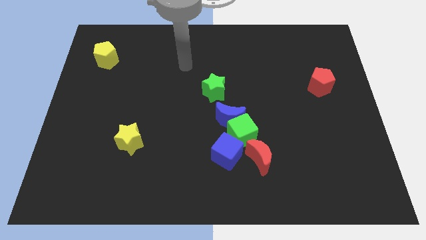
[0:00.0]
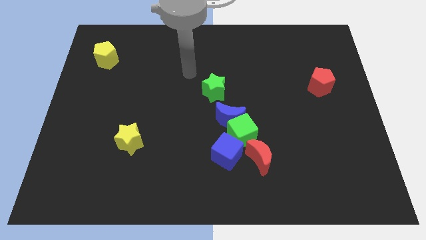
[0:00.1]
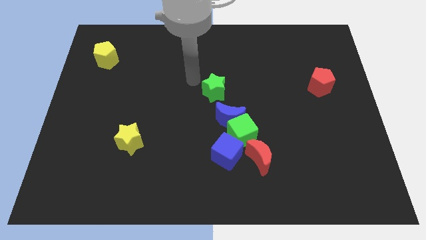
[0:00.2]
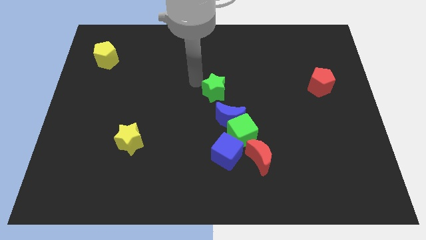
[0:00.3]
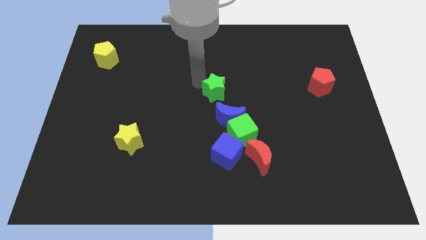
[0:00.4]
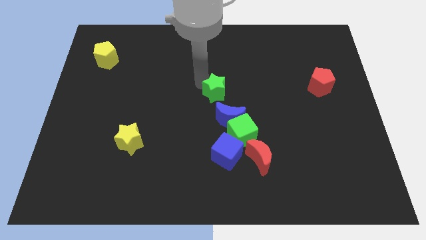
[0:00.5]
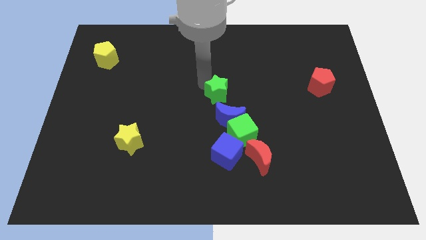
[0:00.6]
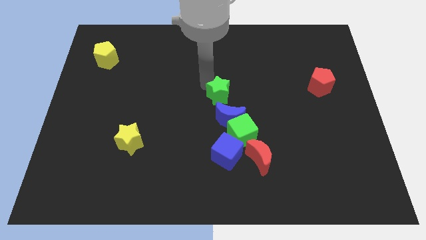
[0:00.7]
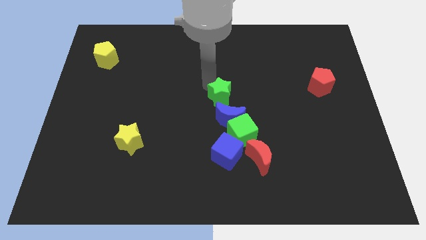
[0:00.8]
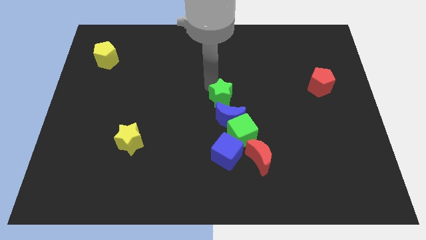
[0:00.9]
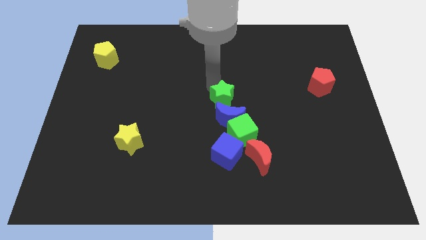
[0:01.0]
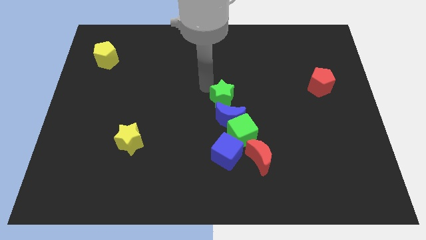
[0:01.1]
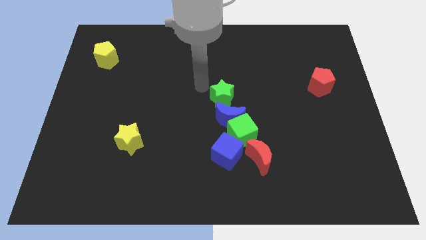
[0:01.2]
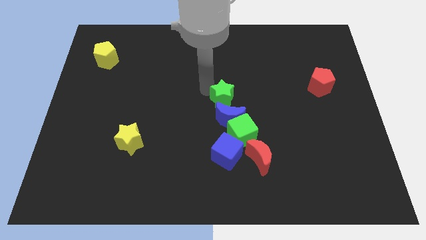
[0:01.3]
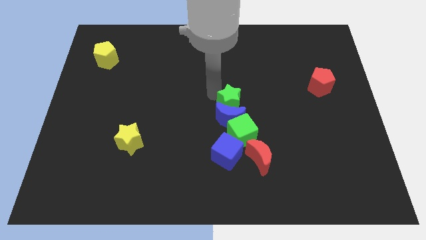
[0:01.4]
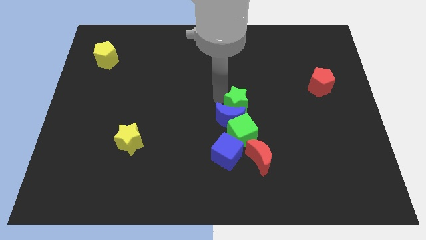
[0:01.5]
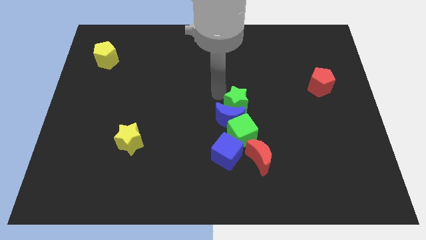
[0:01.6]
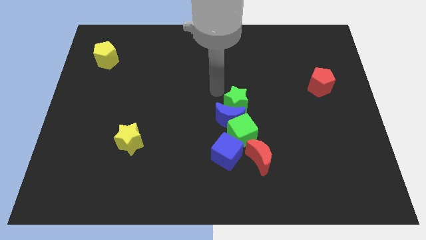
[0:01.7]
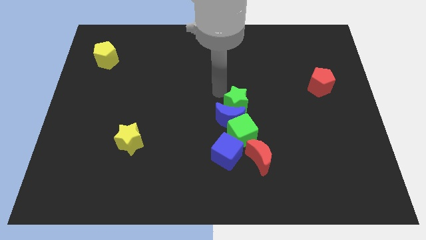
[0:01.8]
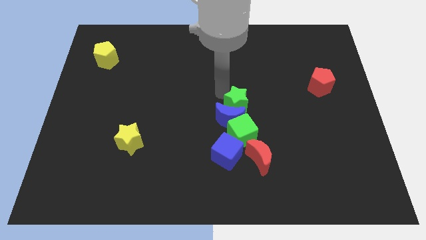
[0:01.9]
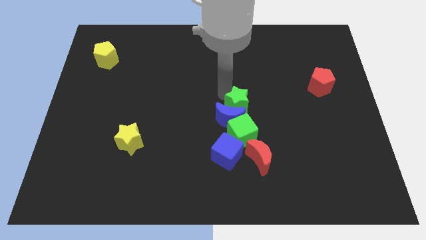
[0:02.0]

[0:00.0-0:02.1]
slightly move the green star downwards and right diagonally

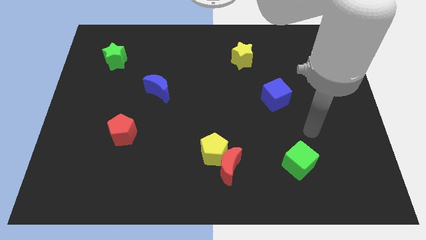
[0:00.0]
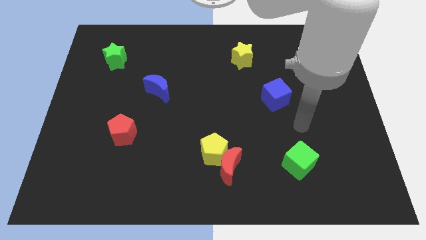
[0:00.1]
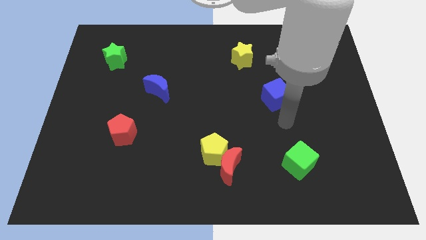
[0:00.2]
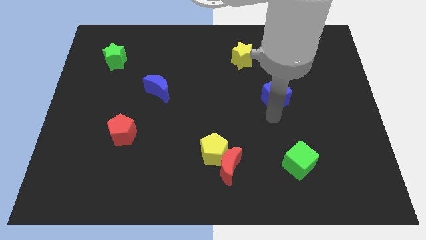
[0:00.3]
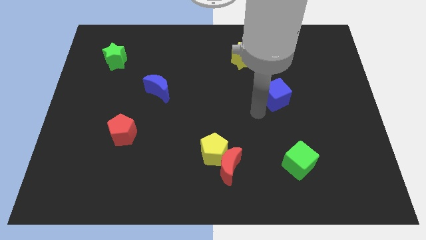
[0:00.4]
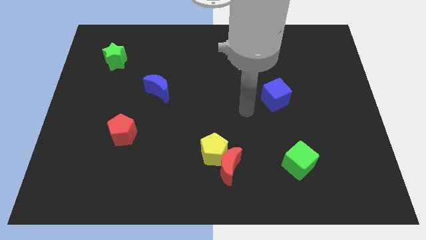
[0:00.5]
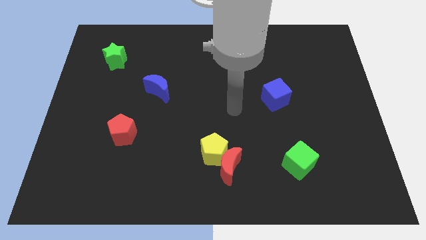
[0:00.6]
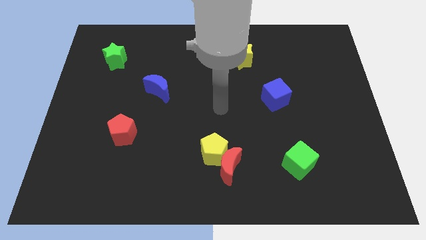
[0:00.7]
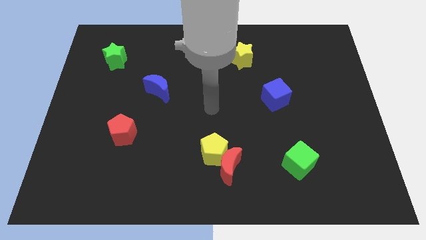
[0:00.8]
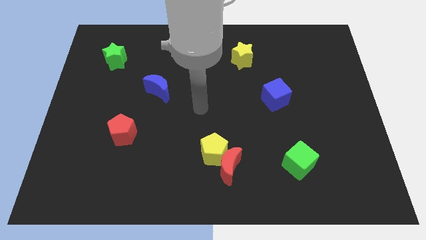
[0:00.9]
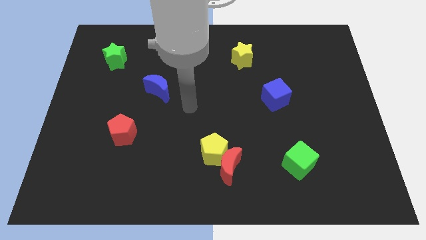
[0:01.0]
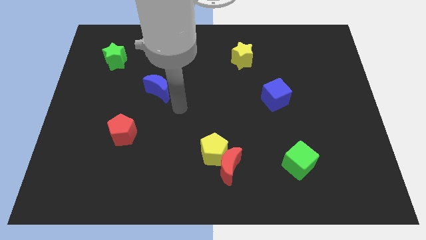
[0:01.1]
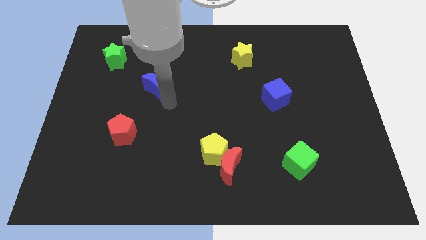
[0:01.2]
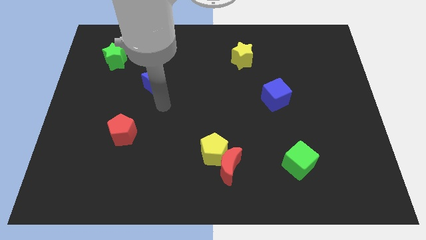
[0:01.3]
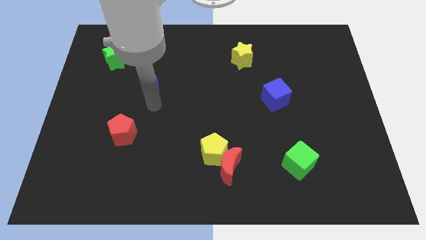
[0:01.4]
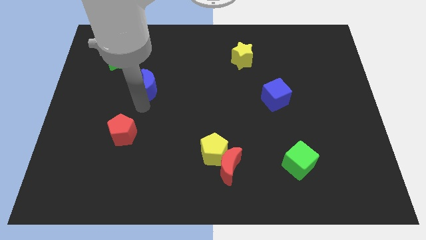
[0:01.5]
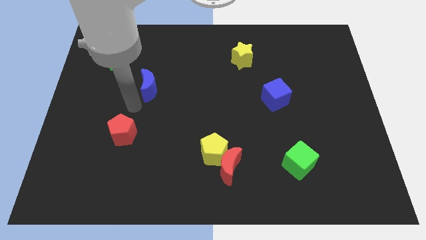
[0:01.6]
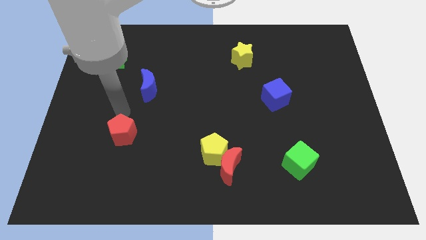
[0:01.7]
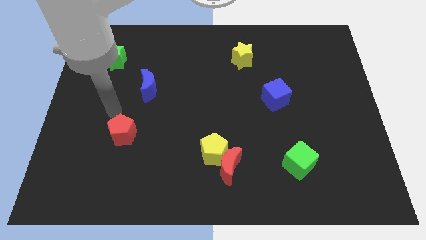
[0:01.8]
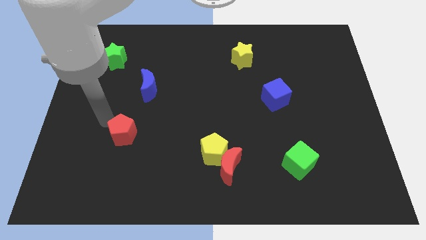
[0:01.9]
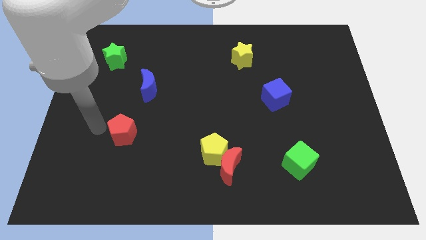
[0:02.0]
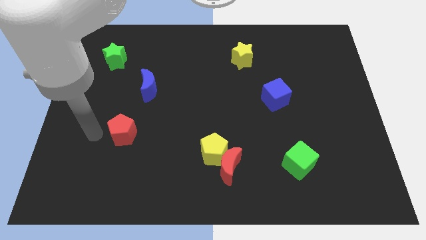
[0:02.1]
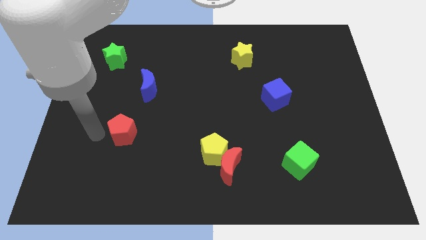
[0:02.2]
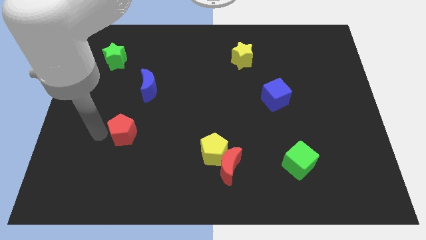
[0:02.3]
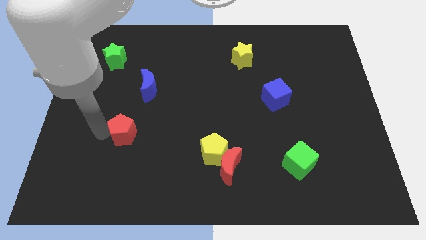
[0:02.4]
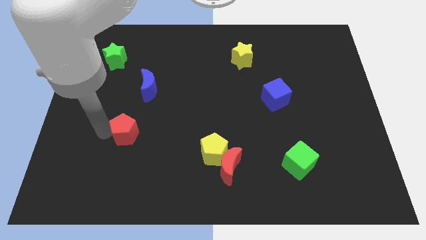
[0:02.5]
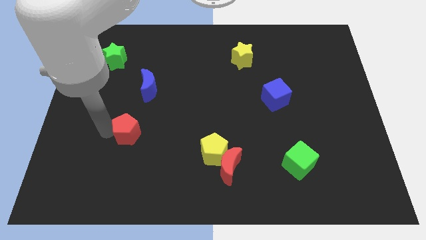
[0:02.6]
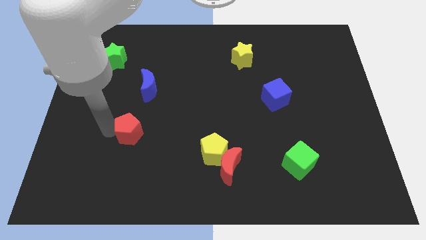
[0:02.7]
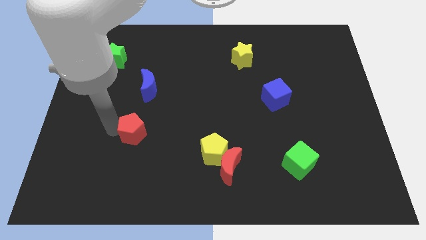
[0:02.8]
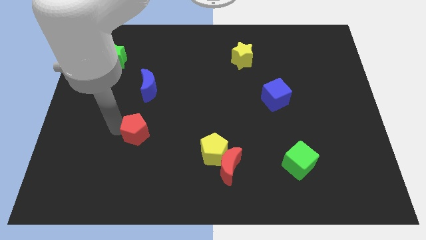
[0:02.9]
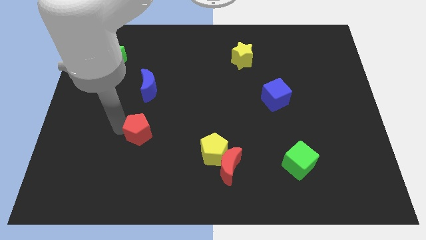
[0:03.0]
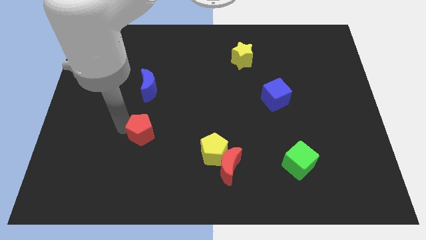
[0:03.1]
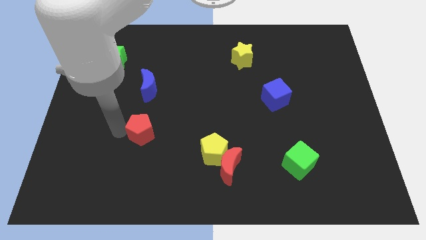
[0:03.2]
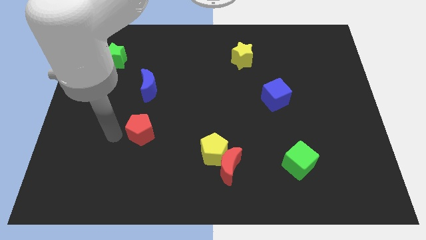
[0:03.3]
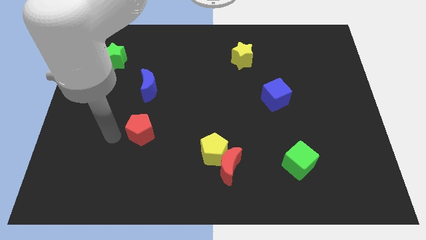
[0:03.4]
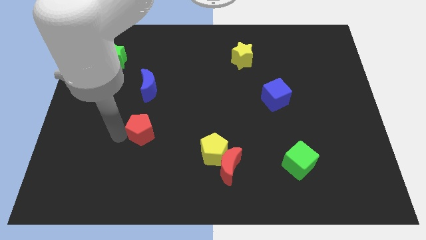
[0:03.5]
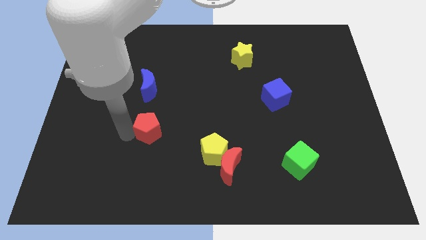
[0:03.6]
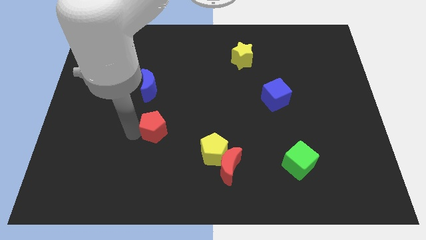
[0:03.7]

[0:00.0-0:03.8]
slightly push the red pentagon right

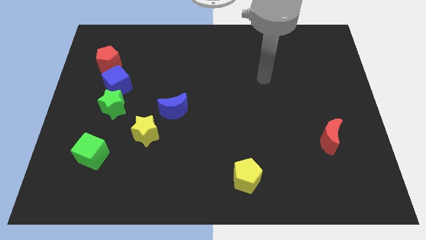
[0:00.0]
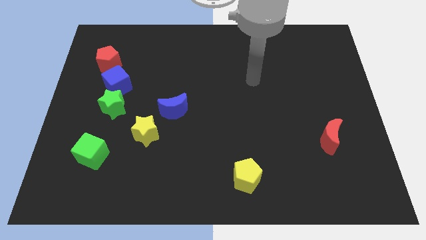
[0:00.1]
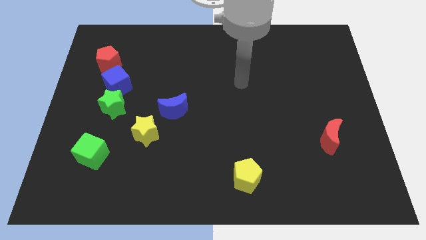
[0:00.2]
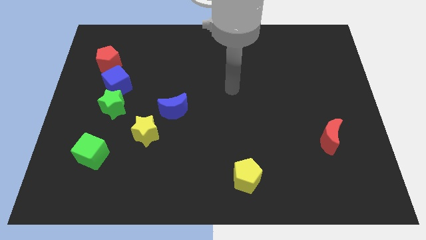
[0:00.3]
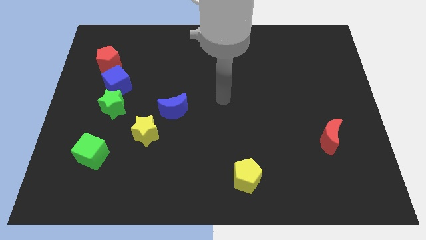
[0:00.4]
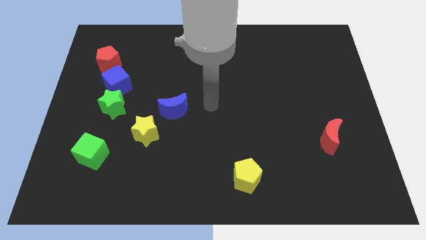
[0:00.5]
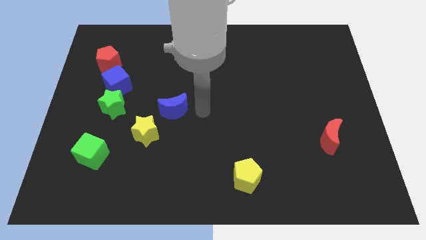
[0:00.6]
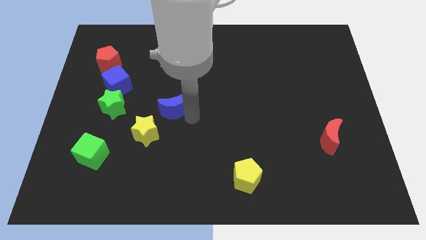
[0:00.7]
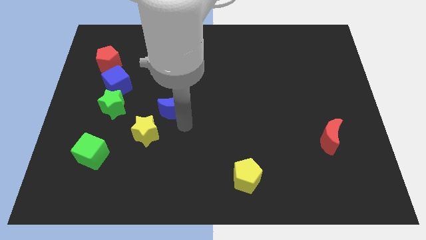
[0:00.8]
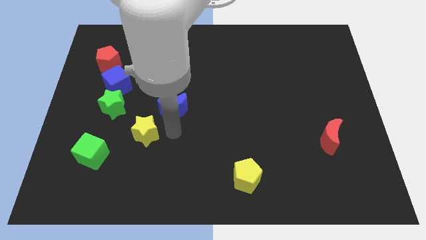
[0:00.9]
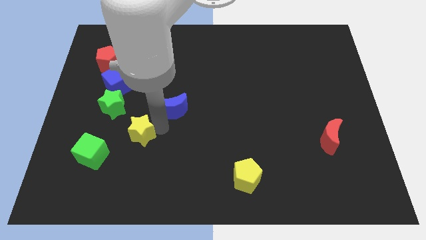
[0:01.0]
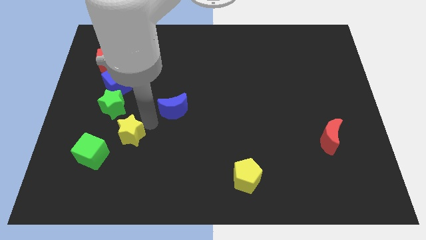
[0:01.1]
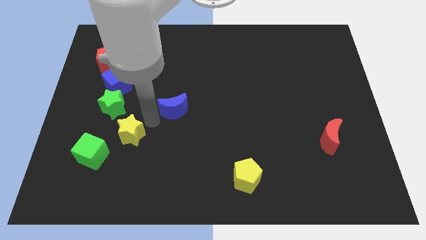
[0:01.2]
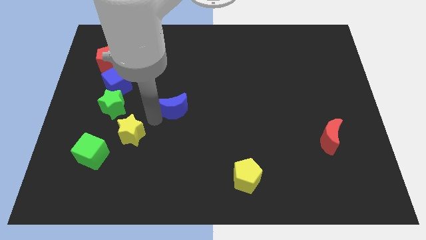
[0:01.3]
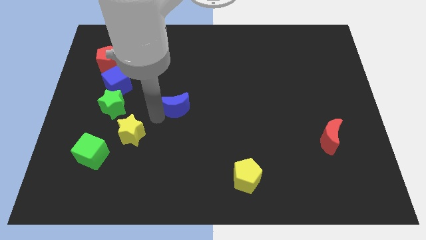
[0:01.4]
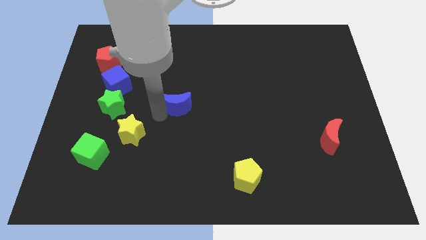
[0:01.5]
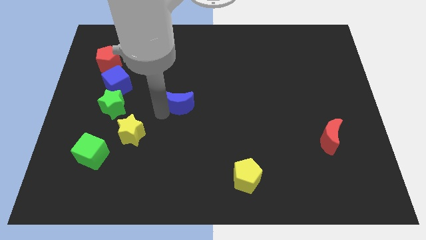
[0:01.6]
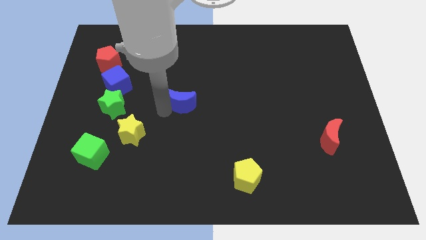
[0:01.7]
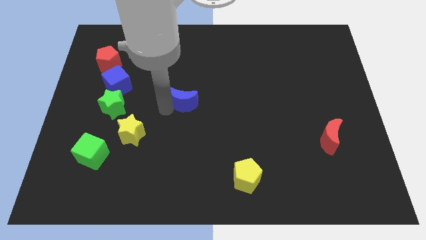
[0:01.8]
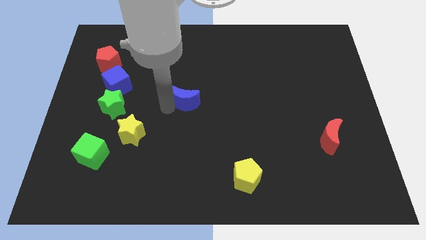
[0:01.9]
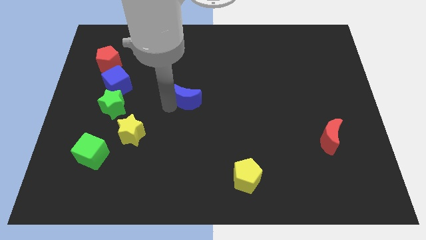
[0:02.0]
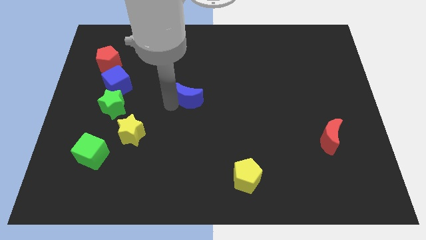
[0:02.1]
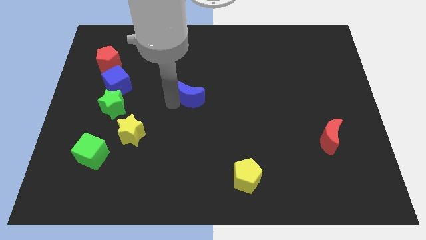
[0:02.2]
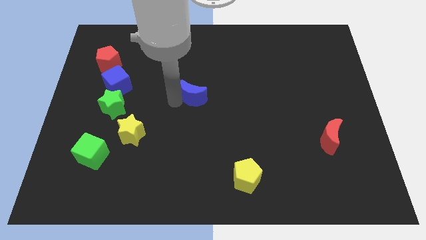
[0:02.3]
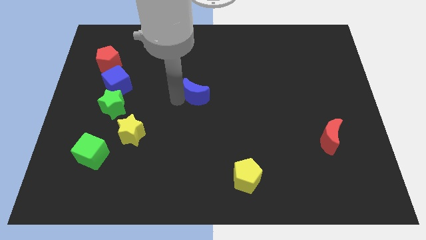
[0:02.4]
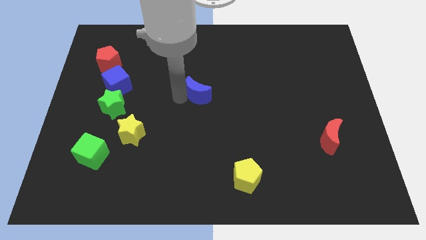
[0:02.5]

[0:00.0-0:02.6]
slide the blue moon diagonally upwards and right a little
